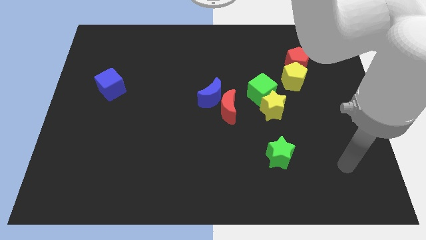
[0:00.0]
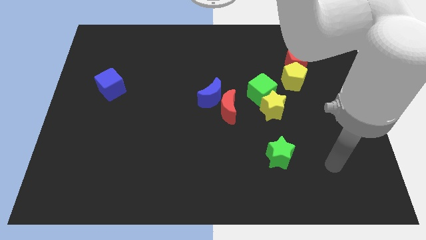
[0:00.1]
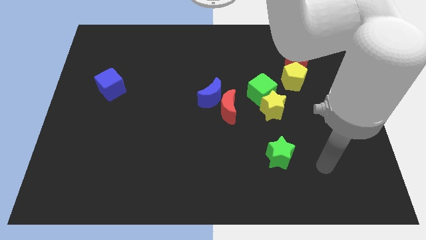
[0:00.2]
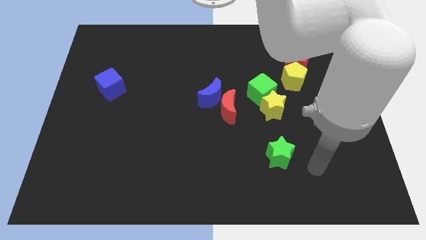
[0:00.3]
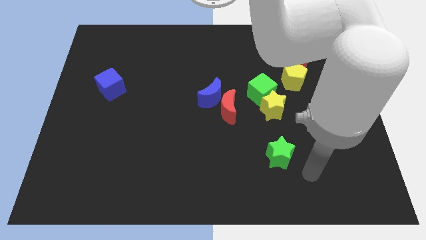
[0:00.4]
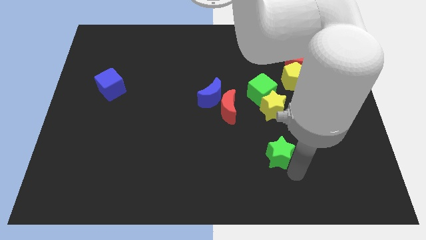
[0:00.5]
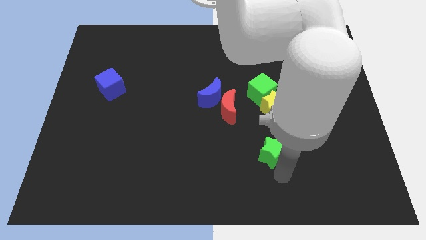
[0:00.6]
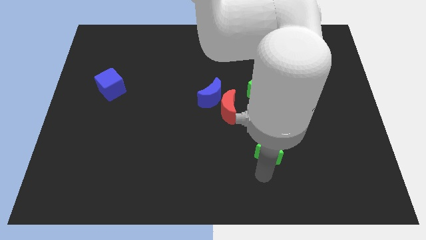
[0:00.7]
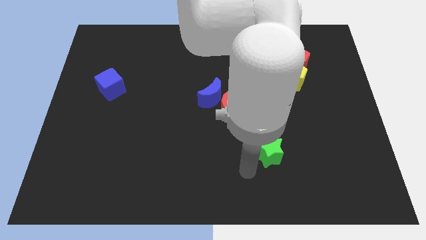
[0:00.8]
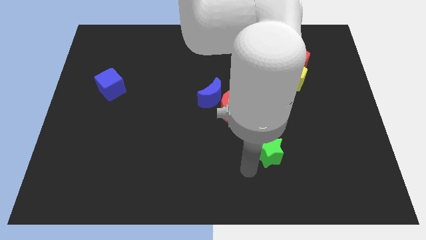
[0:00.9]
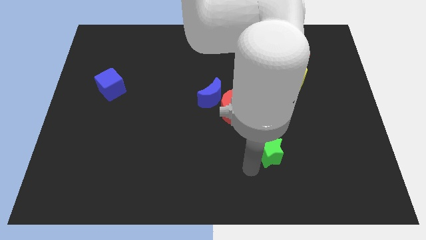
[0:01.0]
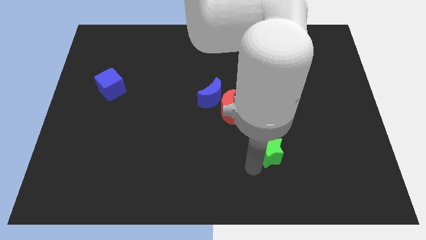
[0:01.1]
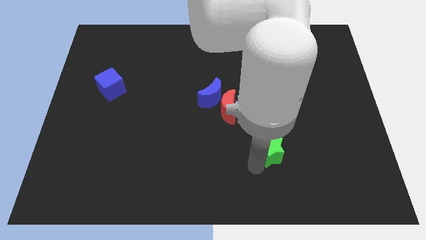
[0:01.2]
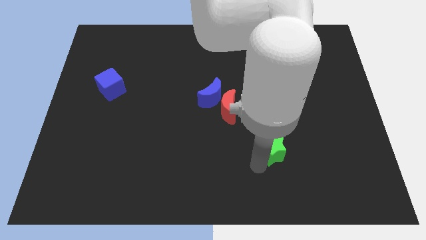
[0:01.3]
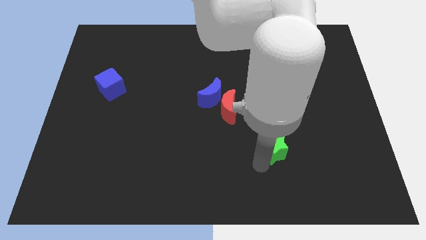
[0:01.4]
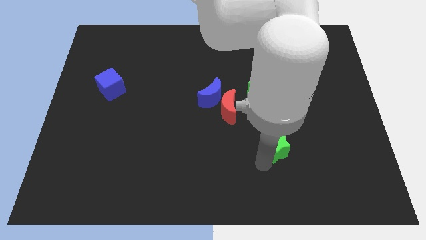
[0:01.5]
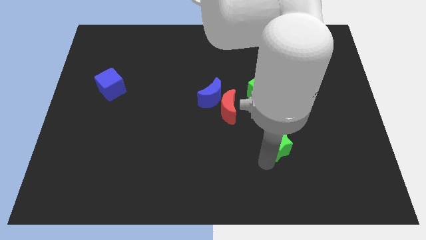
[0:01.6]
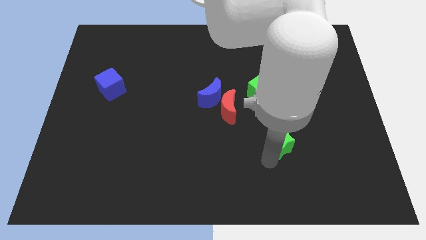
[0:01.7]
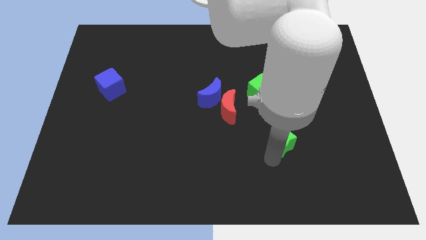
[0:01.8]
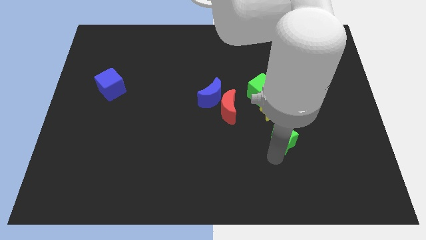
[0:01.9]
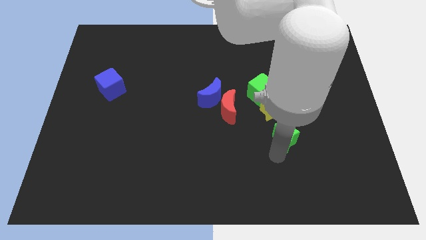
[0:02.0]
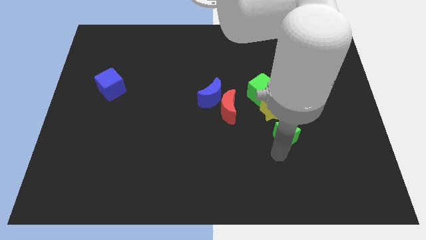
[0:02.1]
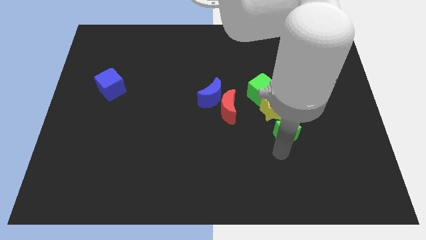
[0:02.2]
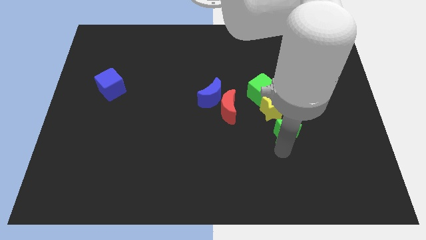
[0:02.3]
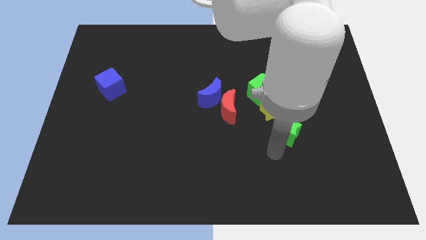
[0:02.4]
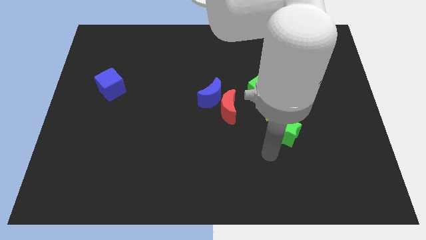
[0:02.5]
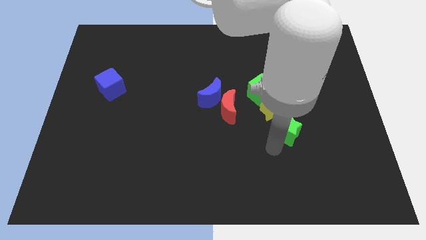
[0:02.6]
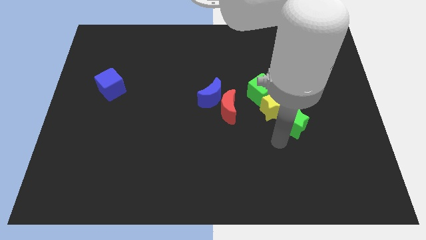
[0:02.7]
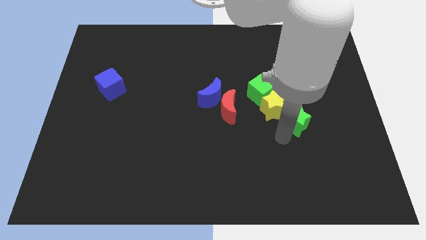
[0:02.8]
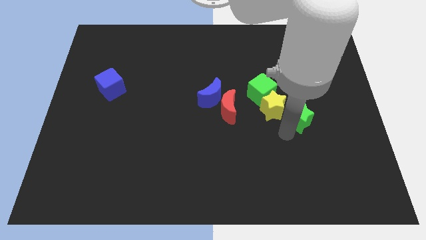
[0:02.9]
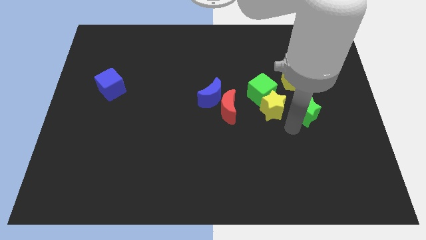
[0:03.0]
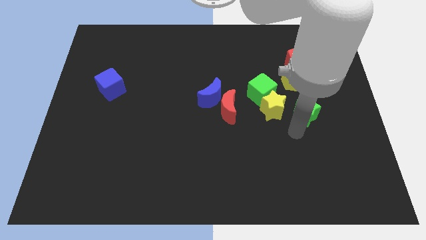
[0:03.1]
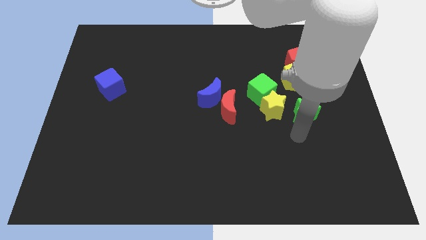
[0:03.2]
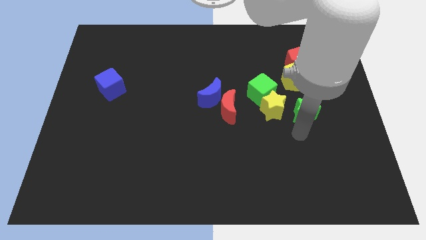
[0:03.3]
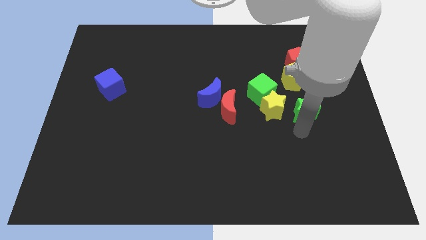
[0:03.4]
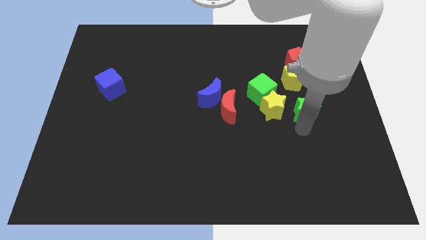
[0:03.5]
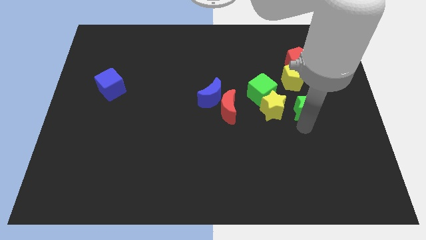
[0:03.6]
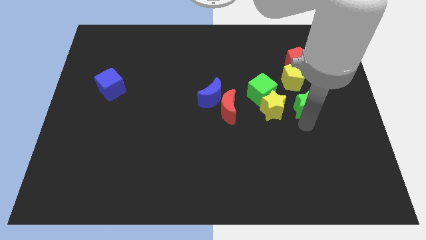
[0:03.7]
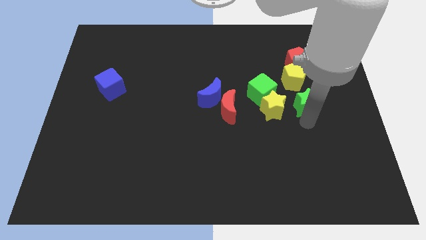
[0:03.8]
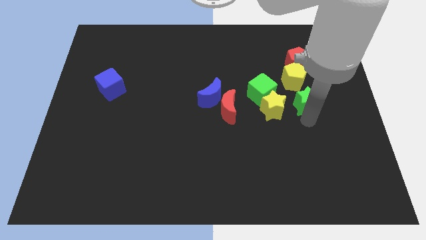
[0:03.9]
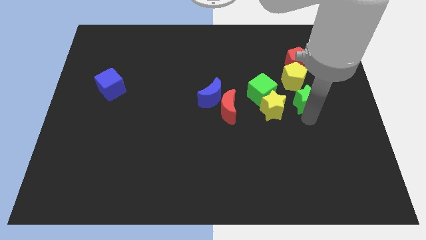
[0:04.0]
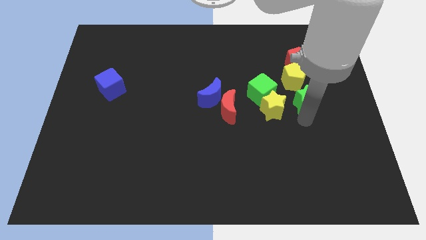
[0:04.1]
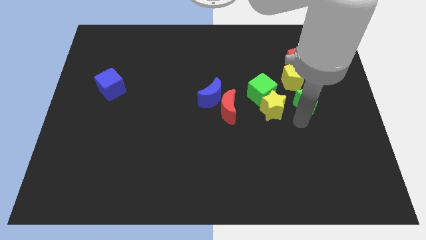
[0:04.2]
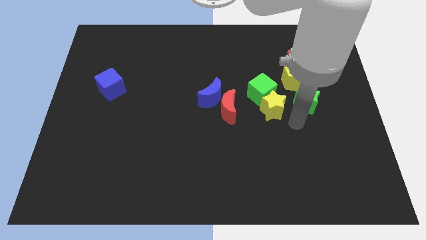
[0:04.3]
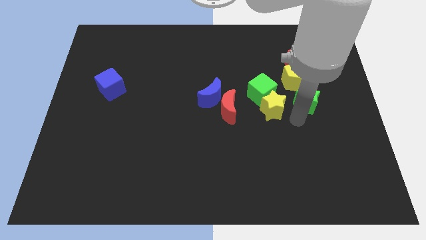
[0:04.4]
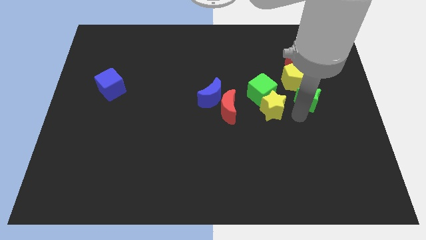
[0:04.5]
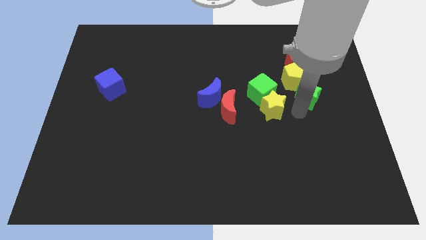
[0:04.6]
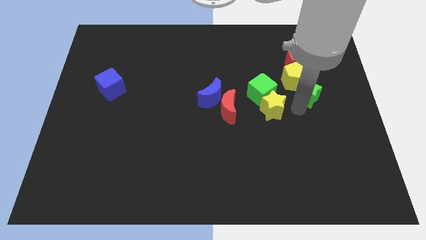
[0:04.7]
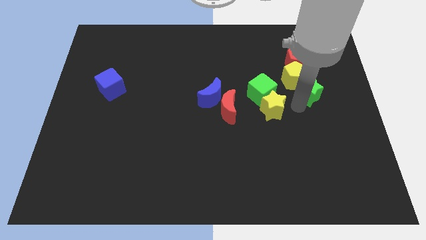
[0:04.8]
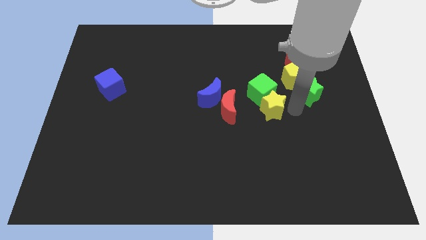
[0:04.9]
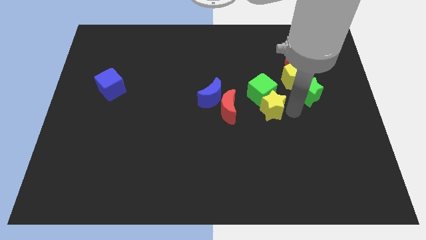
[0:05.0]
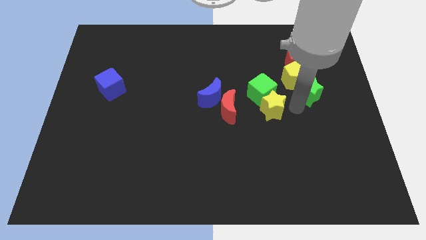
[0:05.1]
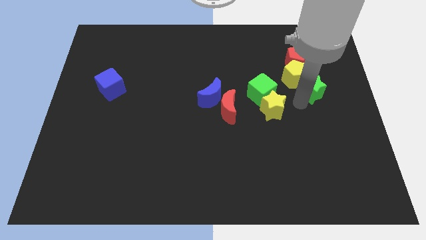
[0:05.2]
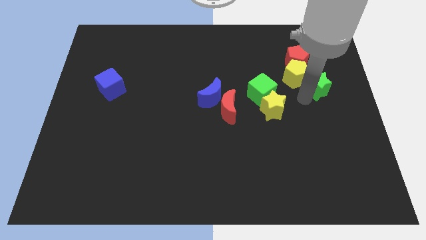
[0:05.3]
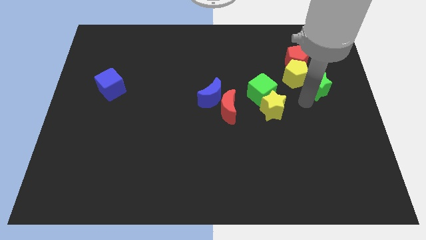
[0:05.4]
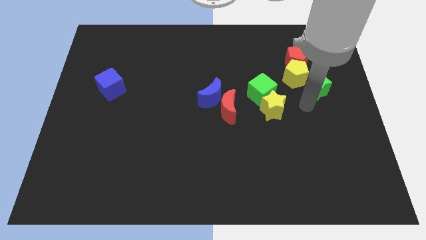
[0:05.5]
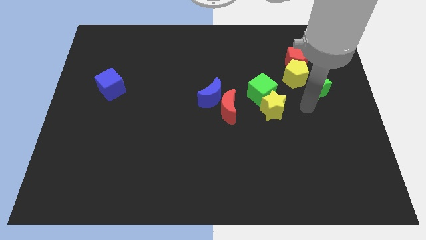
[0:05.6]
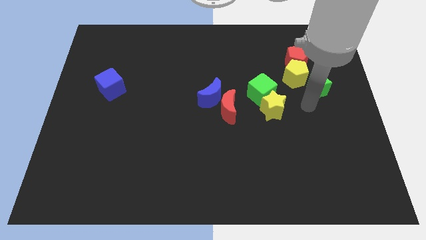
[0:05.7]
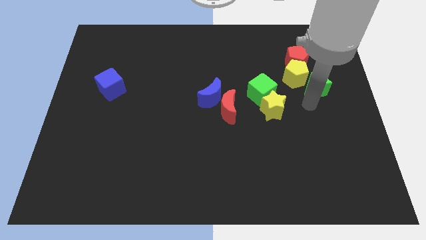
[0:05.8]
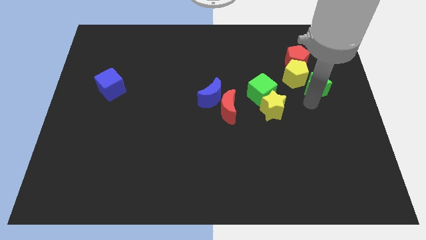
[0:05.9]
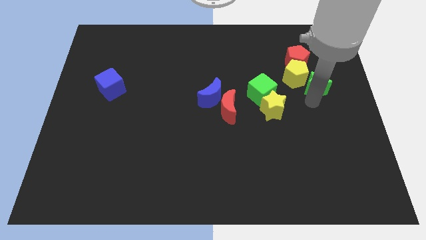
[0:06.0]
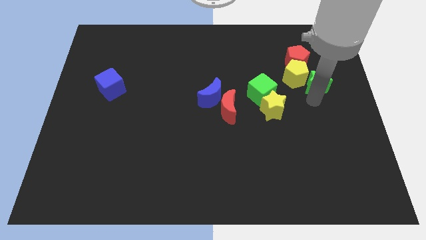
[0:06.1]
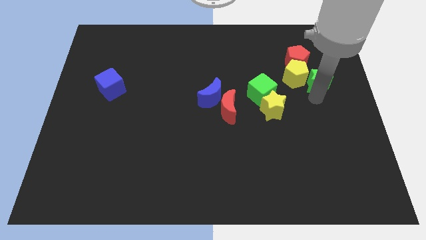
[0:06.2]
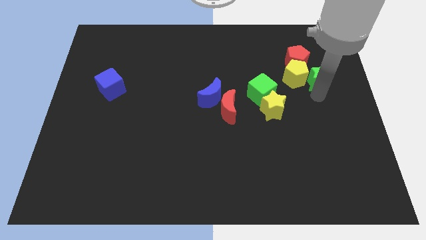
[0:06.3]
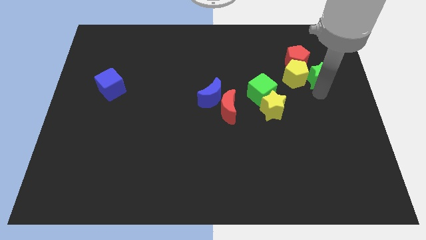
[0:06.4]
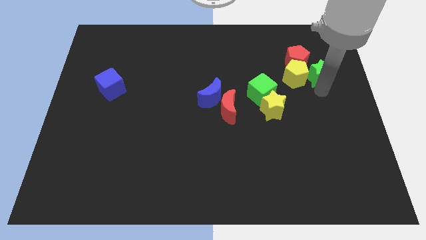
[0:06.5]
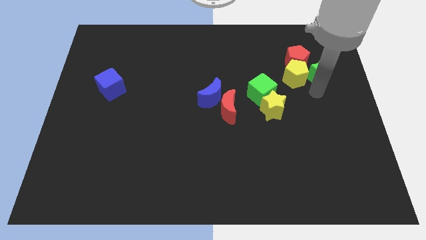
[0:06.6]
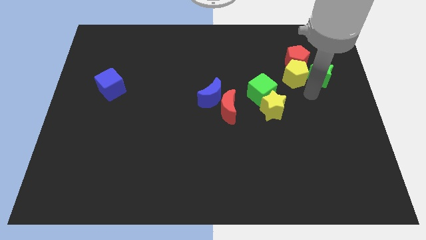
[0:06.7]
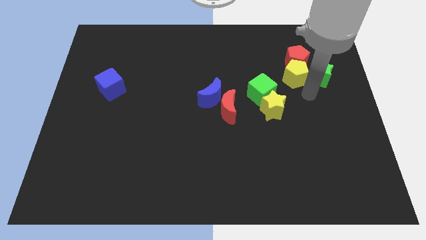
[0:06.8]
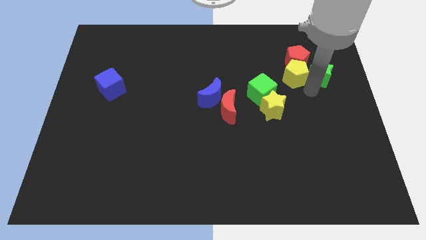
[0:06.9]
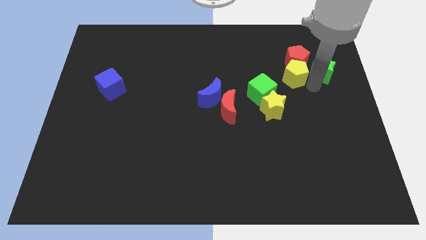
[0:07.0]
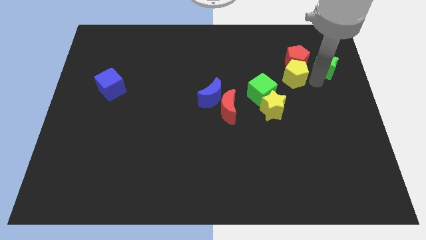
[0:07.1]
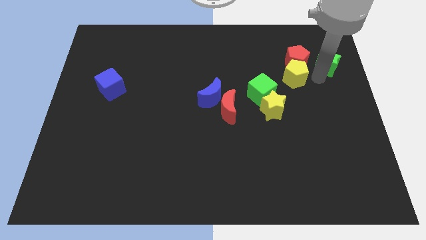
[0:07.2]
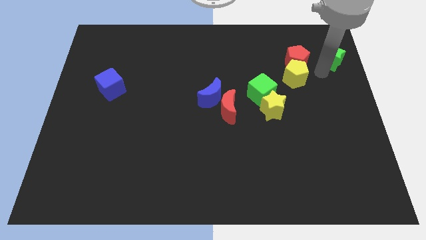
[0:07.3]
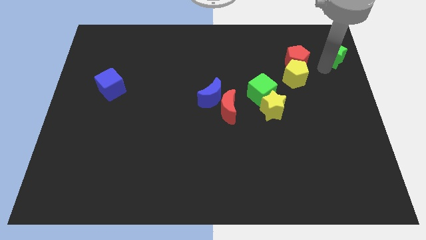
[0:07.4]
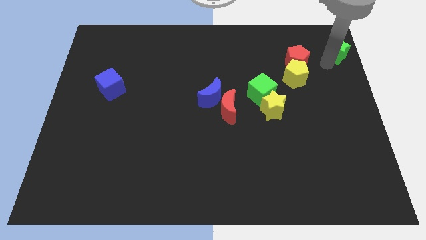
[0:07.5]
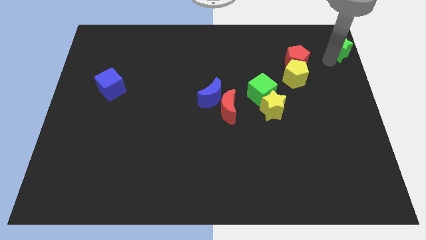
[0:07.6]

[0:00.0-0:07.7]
put the green star to the top right

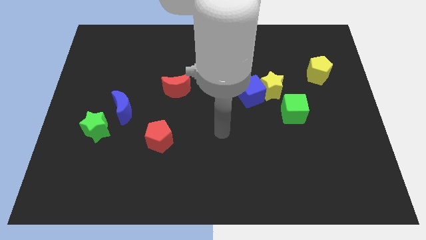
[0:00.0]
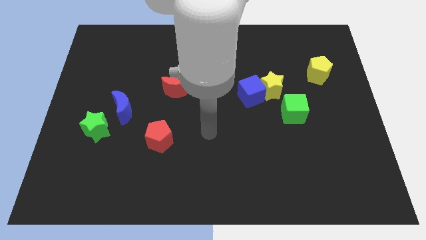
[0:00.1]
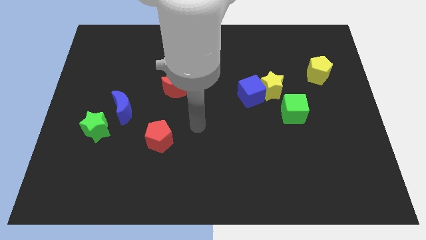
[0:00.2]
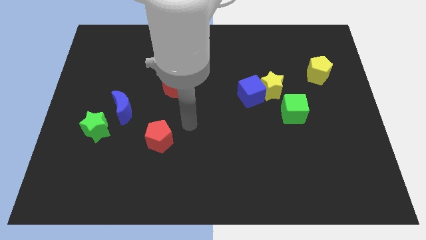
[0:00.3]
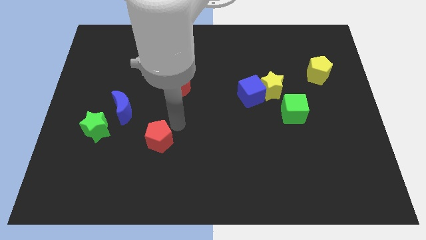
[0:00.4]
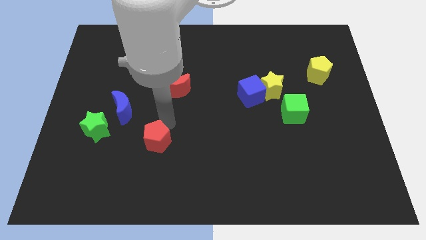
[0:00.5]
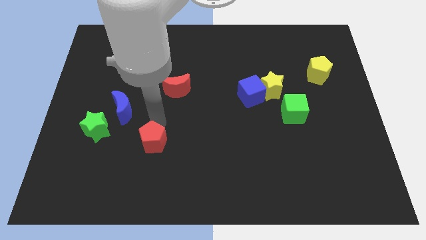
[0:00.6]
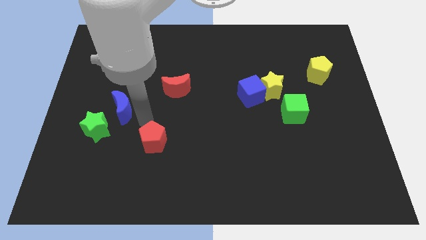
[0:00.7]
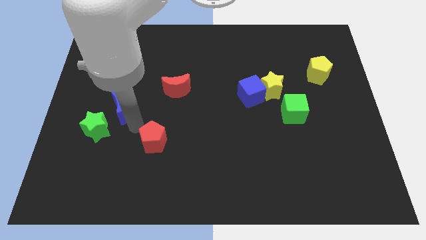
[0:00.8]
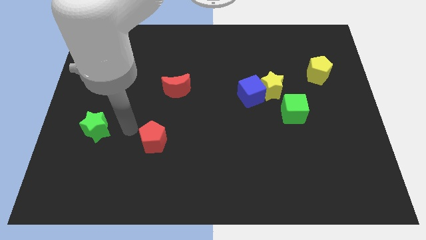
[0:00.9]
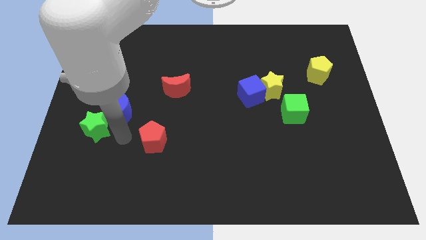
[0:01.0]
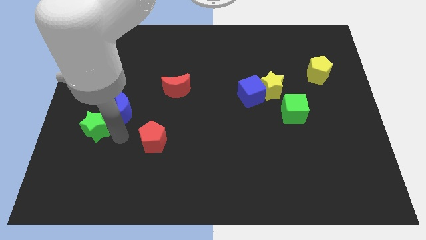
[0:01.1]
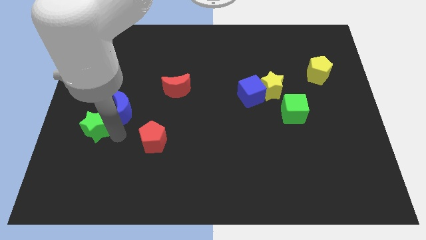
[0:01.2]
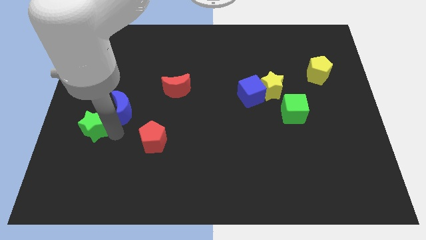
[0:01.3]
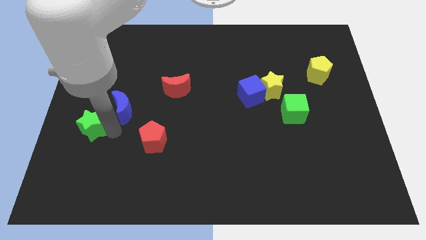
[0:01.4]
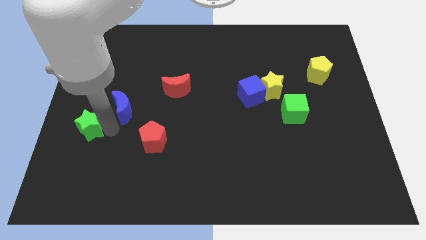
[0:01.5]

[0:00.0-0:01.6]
slide the green star to the left side
